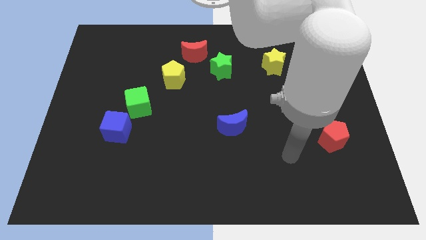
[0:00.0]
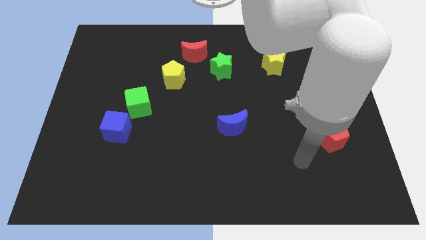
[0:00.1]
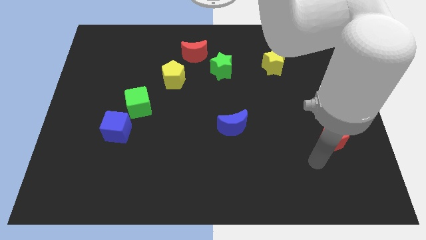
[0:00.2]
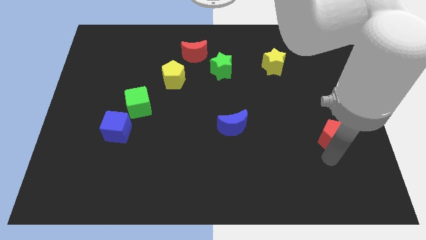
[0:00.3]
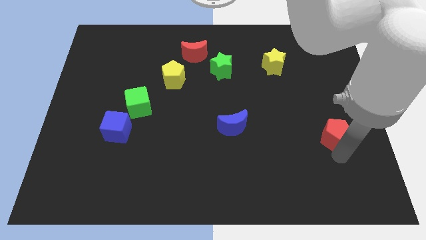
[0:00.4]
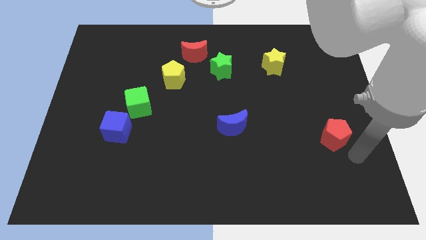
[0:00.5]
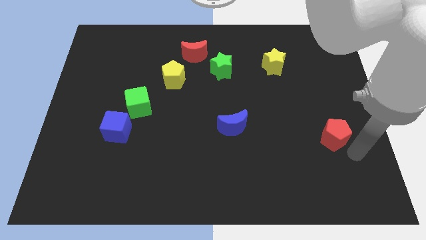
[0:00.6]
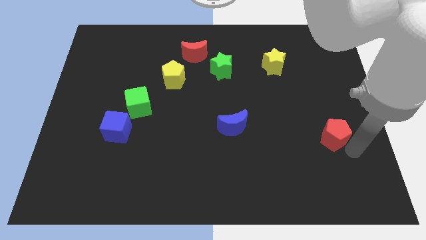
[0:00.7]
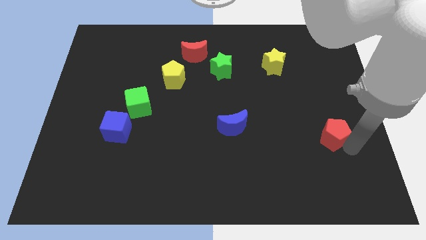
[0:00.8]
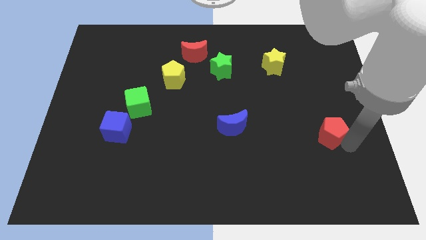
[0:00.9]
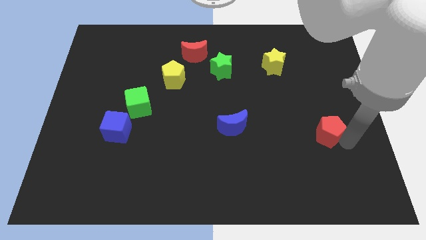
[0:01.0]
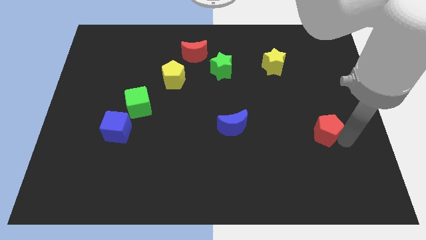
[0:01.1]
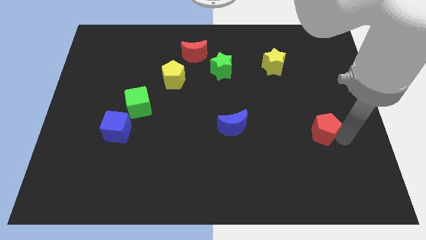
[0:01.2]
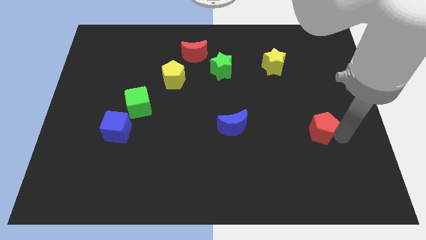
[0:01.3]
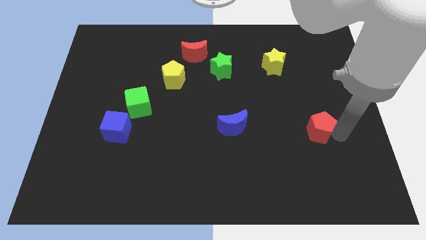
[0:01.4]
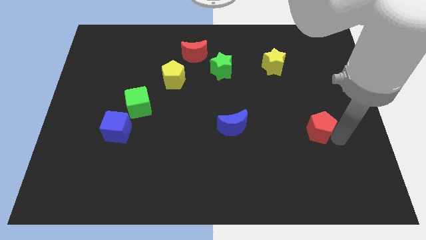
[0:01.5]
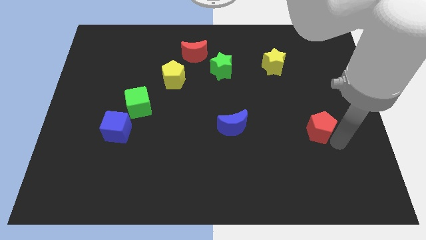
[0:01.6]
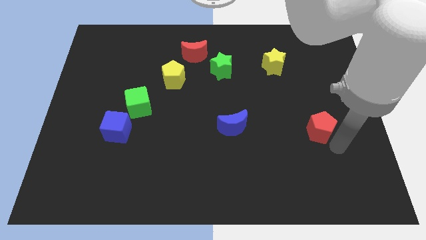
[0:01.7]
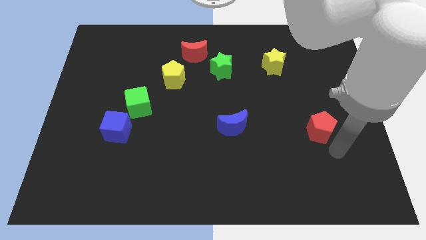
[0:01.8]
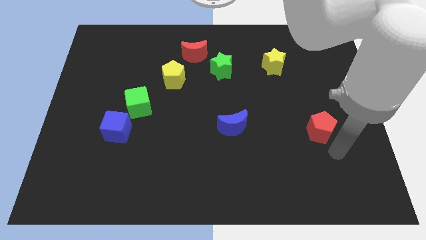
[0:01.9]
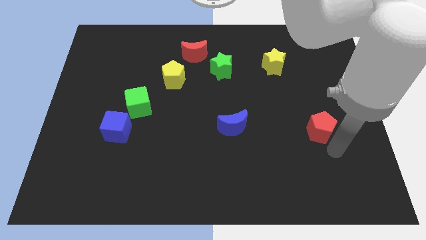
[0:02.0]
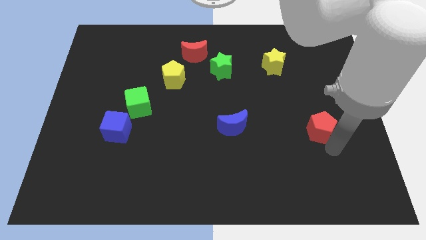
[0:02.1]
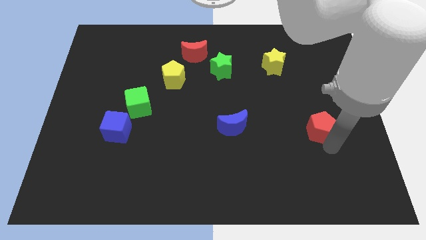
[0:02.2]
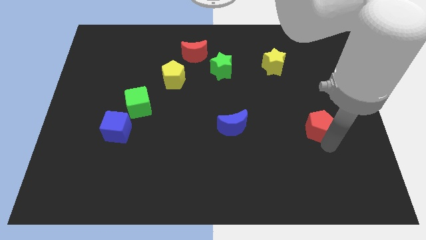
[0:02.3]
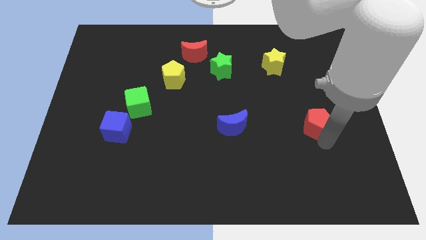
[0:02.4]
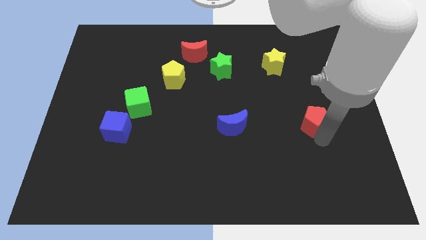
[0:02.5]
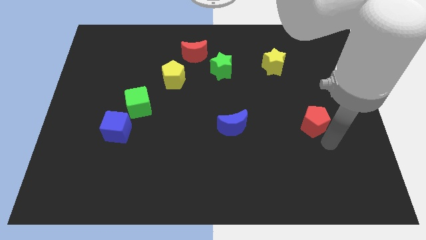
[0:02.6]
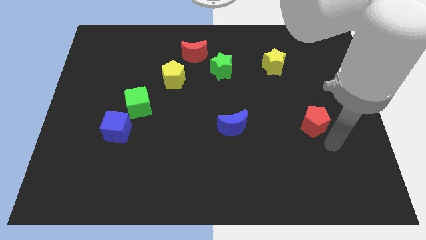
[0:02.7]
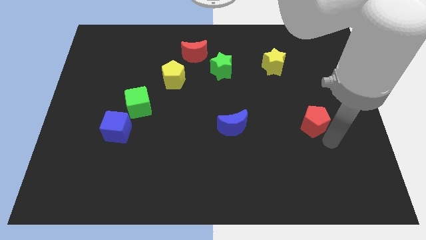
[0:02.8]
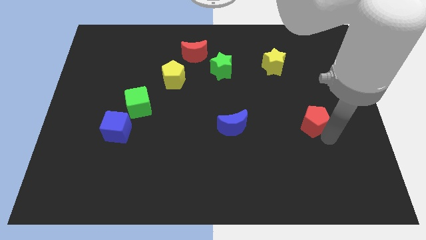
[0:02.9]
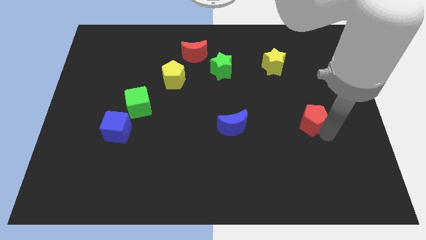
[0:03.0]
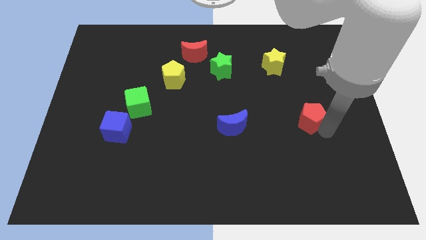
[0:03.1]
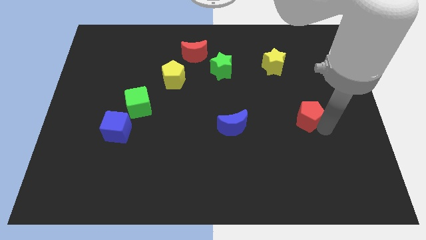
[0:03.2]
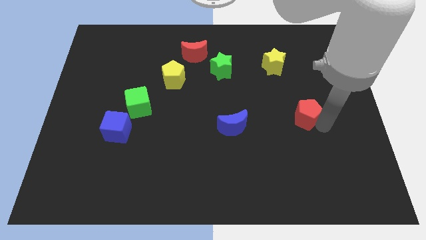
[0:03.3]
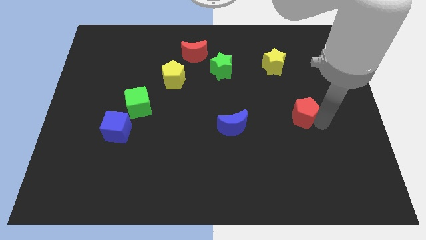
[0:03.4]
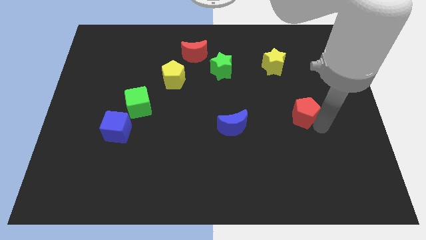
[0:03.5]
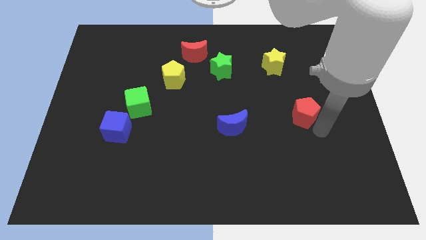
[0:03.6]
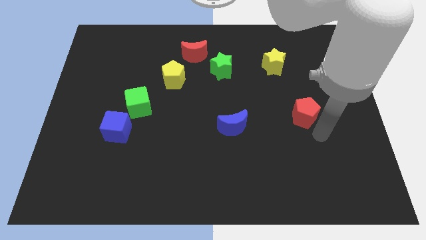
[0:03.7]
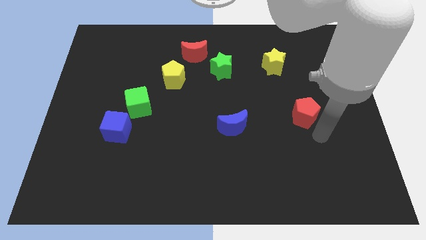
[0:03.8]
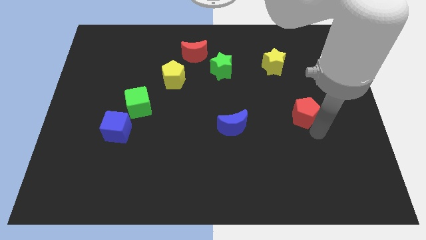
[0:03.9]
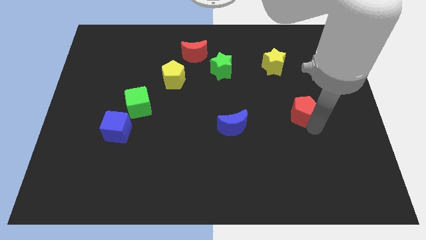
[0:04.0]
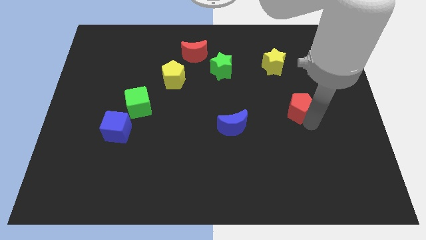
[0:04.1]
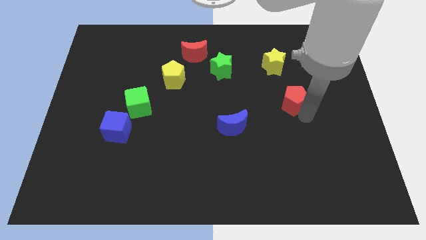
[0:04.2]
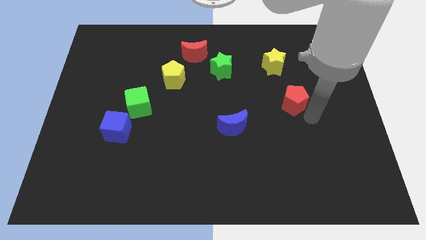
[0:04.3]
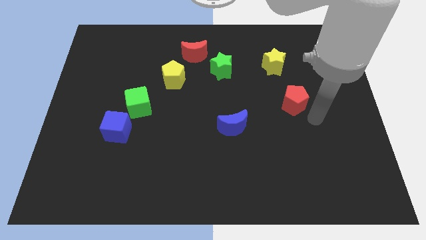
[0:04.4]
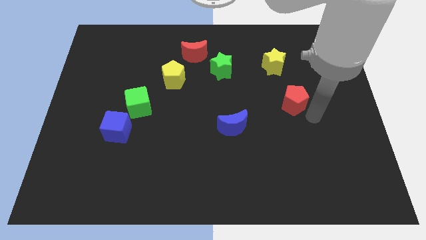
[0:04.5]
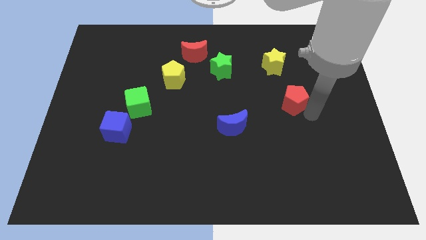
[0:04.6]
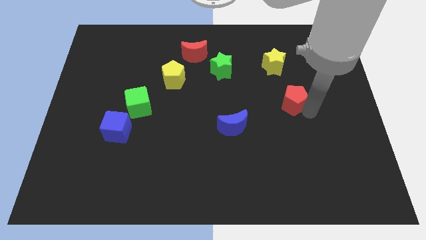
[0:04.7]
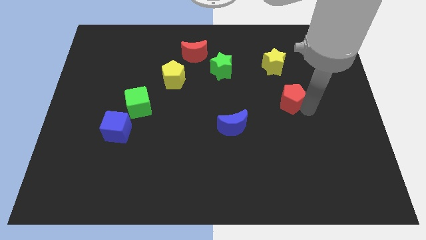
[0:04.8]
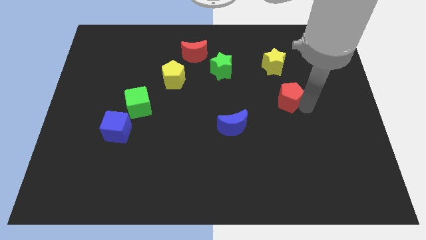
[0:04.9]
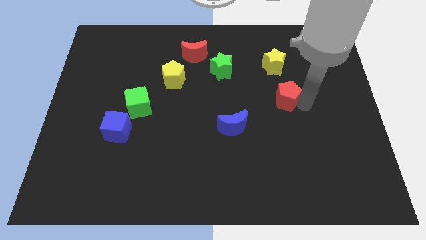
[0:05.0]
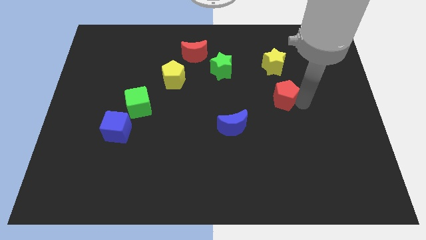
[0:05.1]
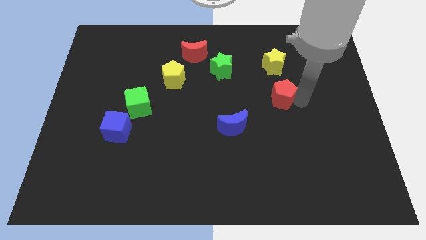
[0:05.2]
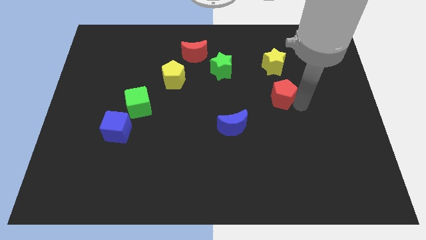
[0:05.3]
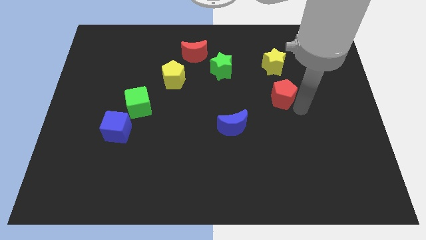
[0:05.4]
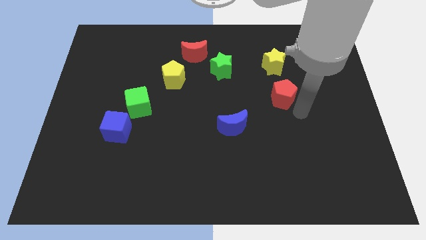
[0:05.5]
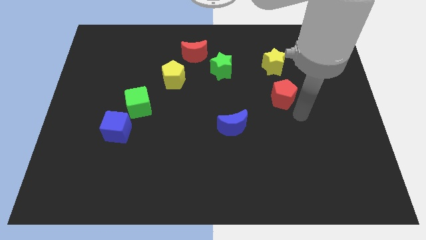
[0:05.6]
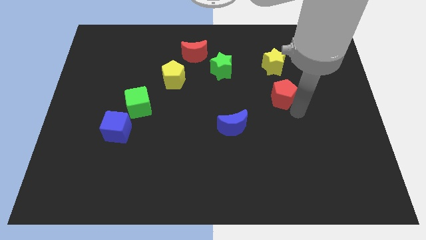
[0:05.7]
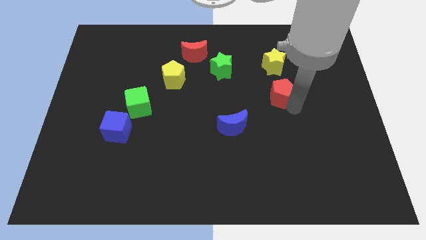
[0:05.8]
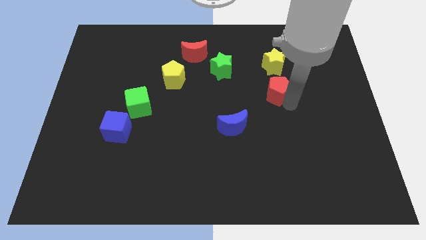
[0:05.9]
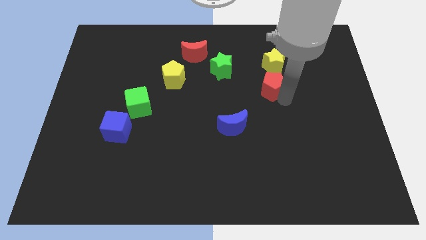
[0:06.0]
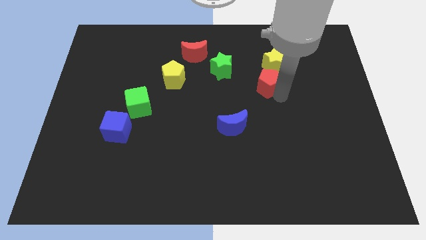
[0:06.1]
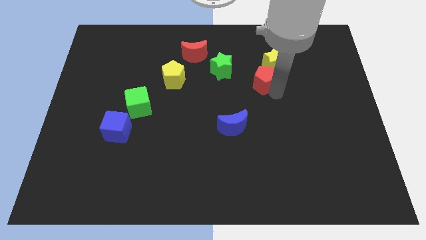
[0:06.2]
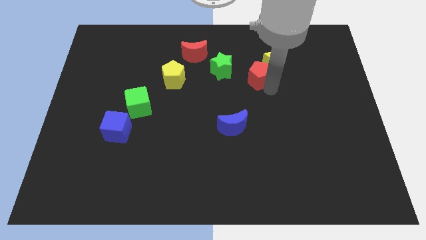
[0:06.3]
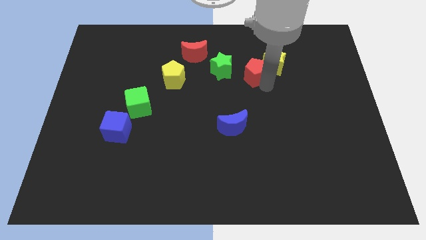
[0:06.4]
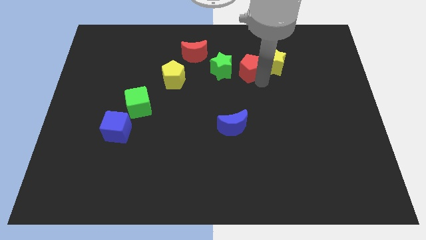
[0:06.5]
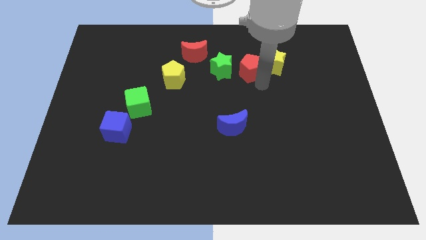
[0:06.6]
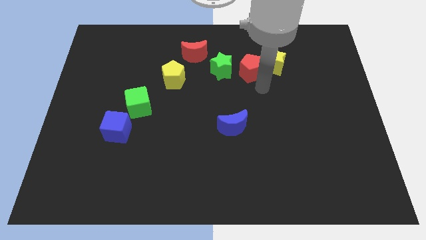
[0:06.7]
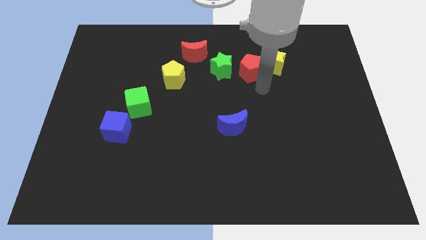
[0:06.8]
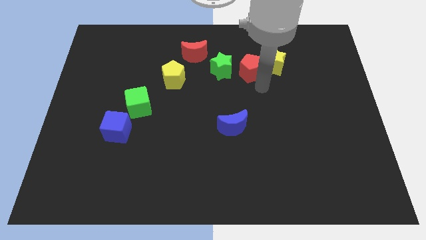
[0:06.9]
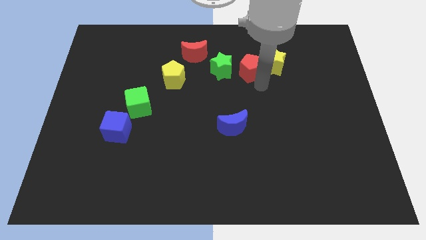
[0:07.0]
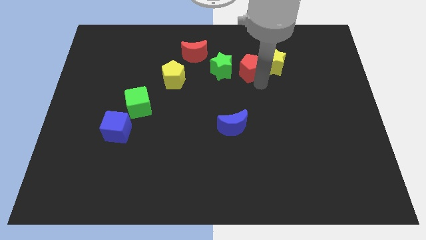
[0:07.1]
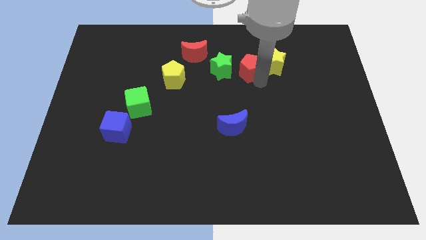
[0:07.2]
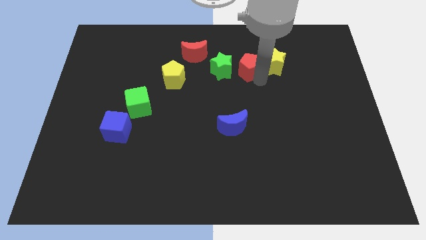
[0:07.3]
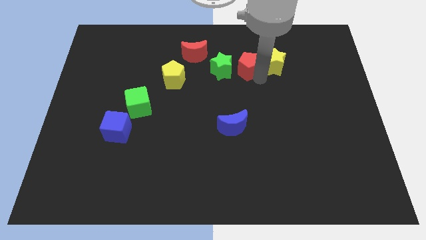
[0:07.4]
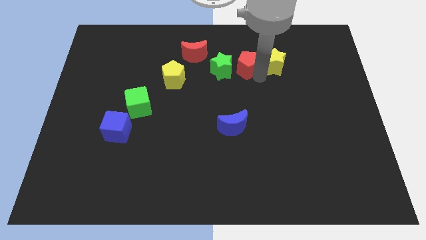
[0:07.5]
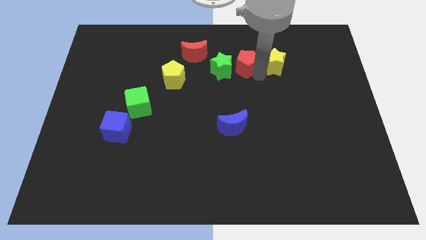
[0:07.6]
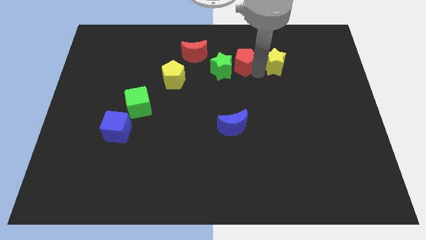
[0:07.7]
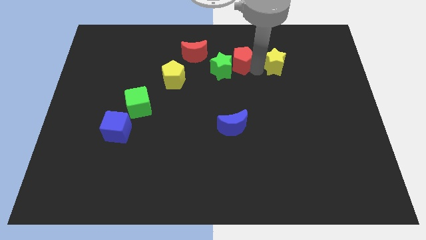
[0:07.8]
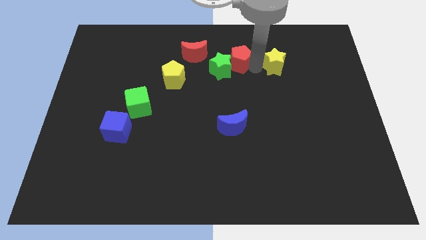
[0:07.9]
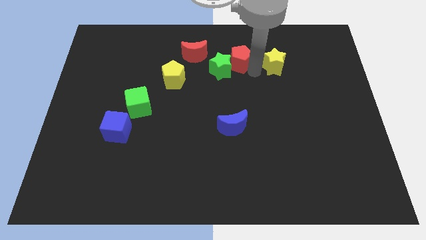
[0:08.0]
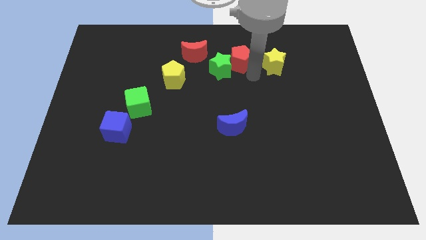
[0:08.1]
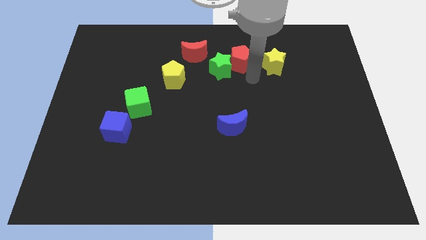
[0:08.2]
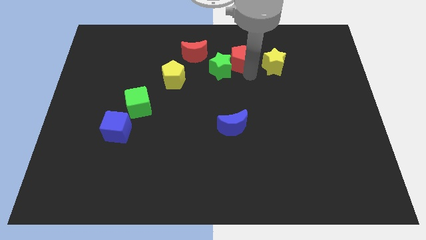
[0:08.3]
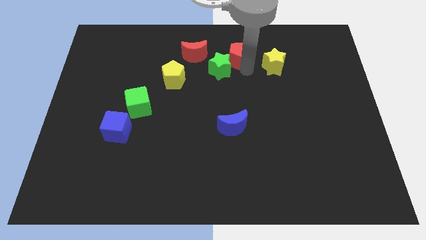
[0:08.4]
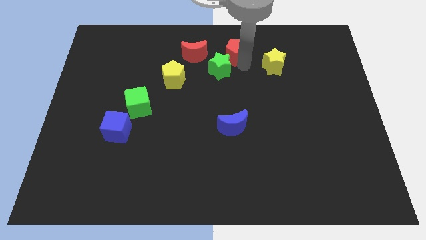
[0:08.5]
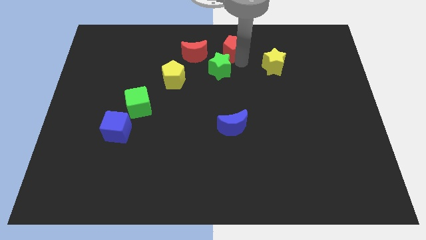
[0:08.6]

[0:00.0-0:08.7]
push the red pentagon to the top side
